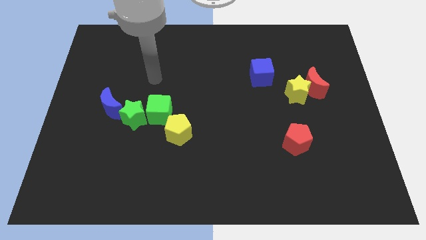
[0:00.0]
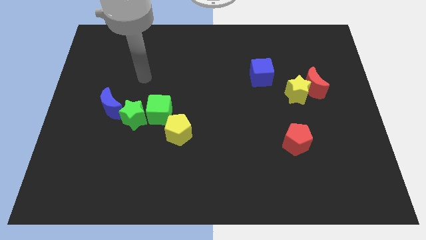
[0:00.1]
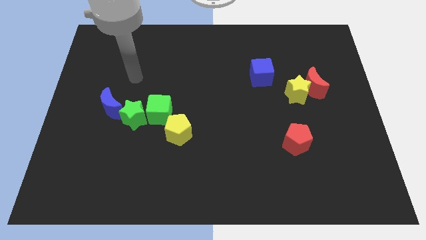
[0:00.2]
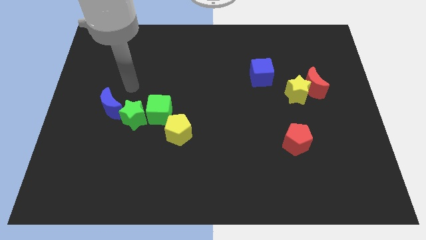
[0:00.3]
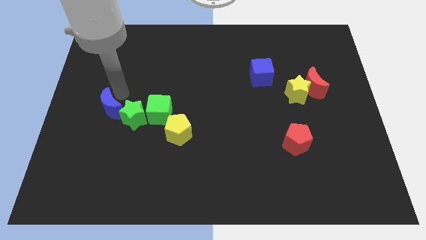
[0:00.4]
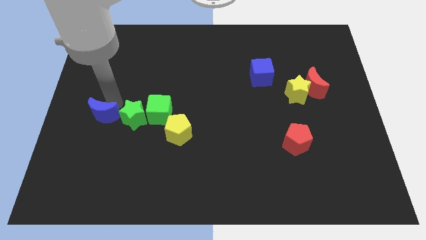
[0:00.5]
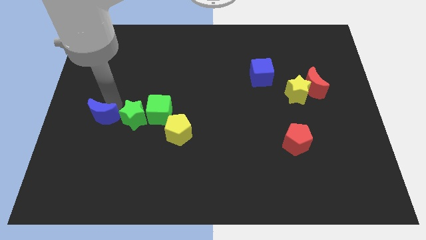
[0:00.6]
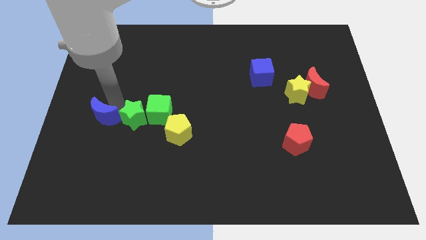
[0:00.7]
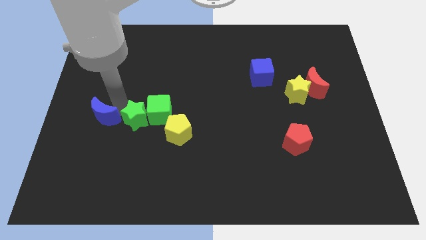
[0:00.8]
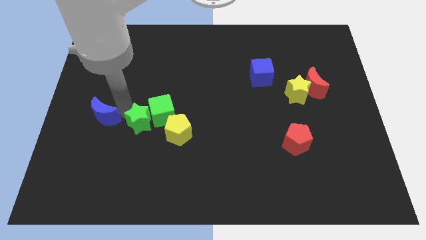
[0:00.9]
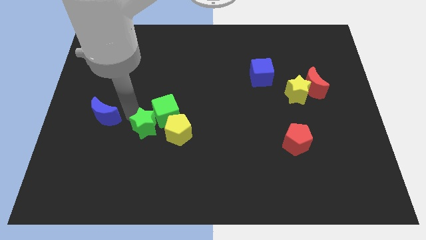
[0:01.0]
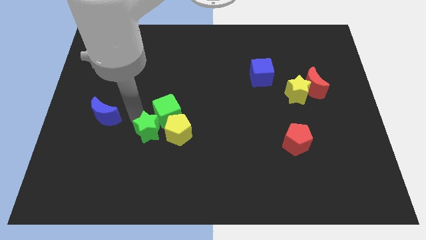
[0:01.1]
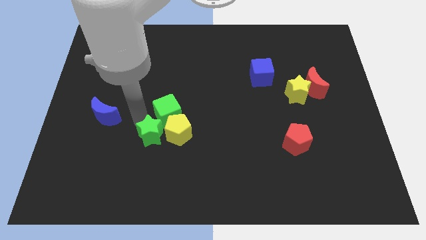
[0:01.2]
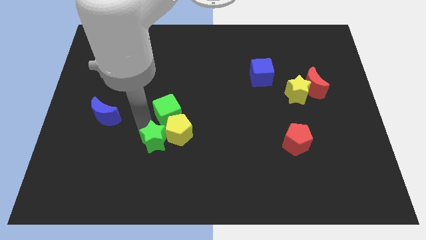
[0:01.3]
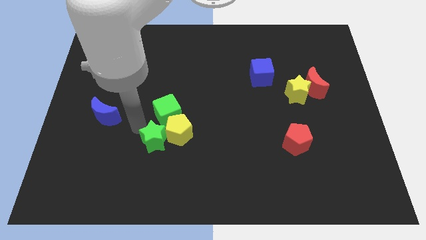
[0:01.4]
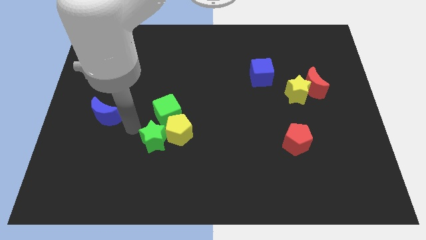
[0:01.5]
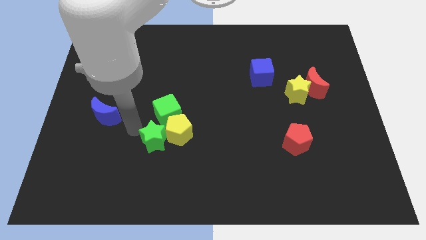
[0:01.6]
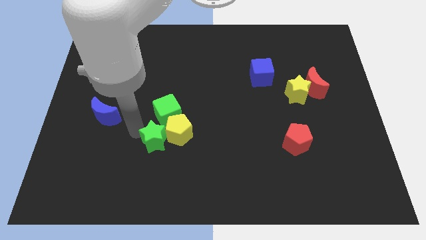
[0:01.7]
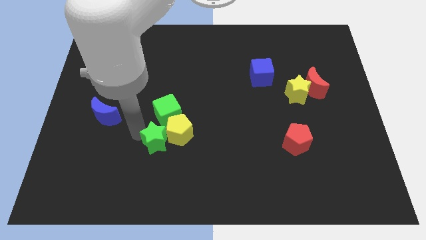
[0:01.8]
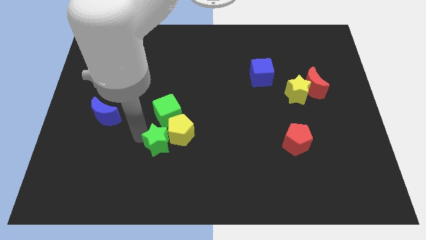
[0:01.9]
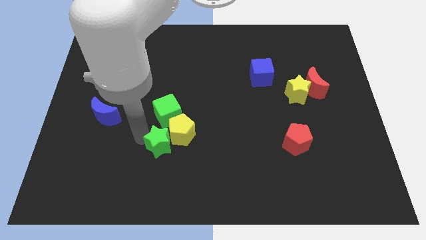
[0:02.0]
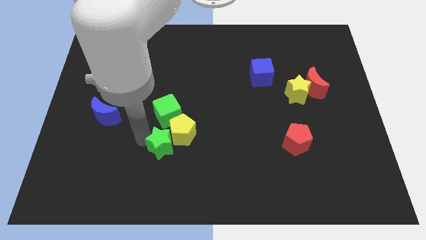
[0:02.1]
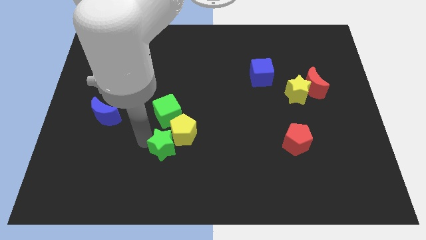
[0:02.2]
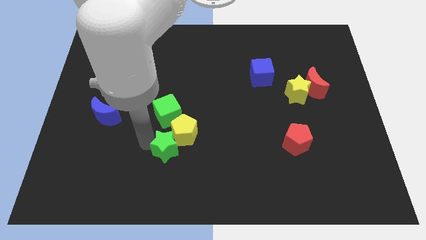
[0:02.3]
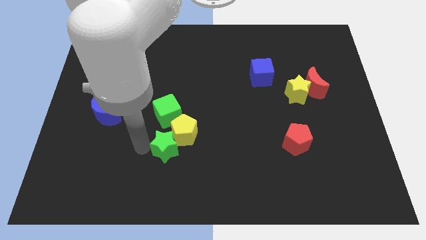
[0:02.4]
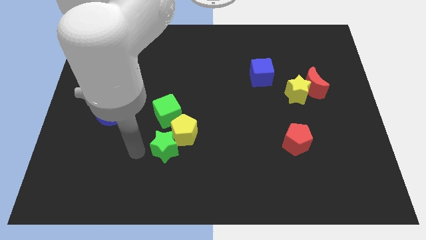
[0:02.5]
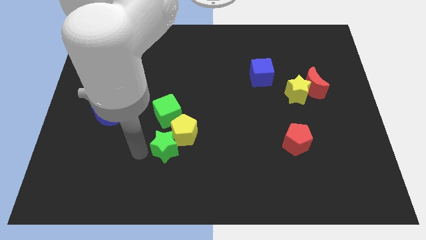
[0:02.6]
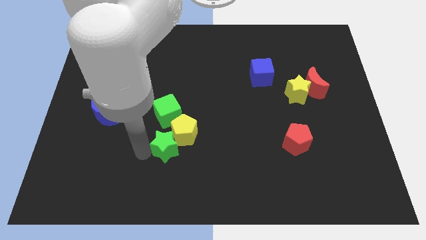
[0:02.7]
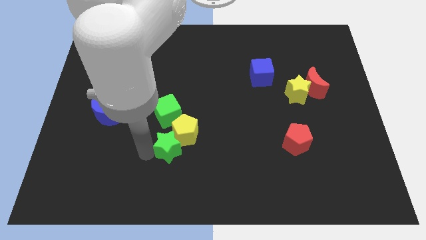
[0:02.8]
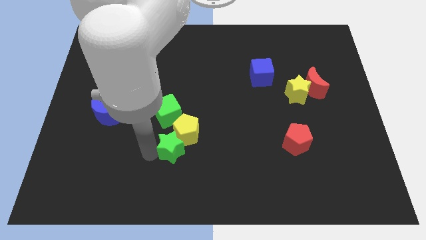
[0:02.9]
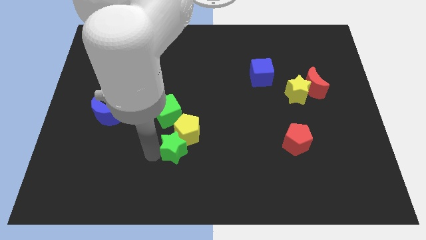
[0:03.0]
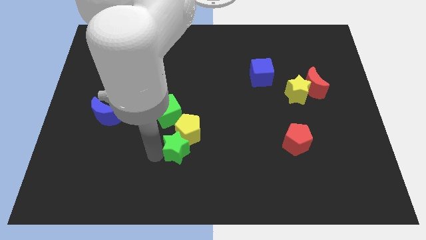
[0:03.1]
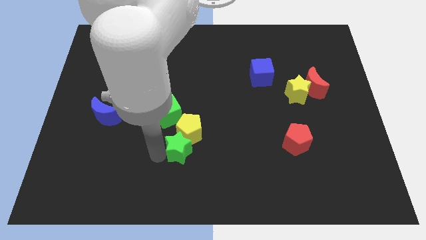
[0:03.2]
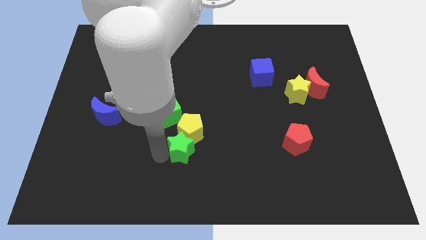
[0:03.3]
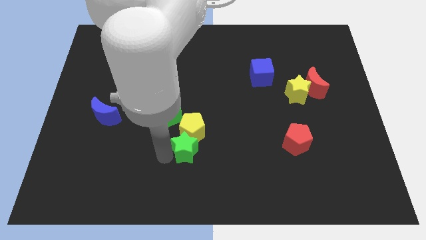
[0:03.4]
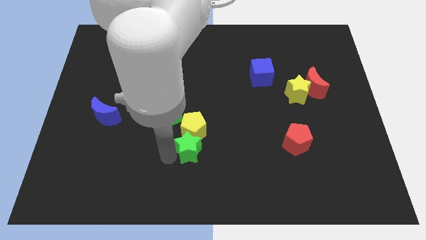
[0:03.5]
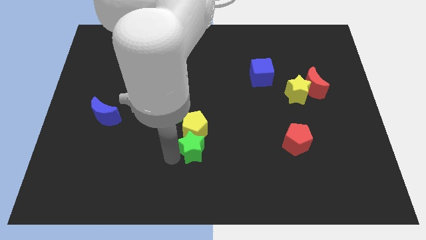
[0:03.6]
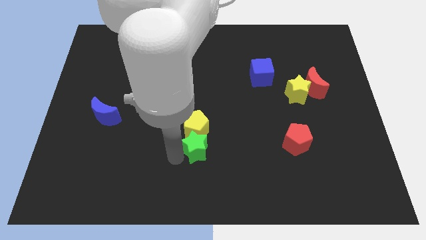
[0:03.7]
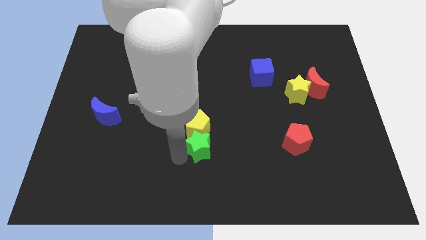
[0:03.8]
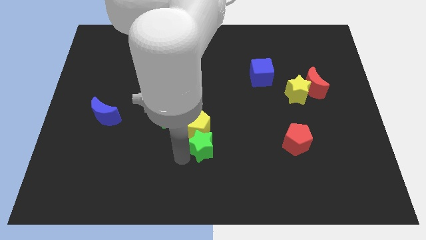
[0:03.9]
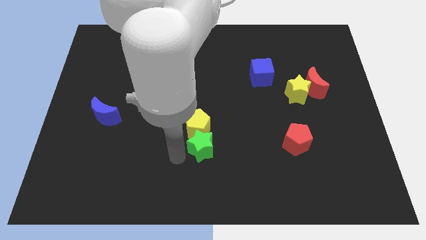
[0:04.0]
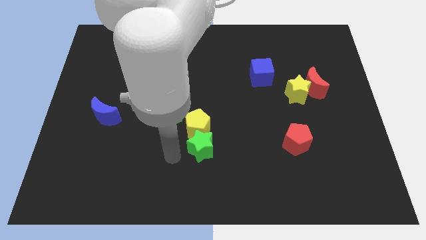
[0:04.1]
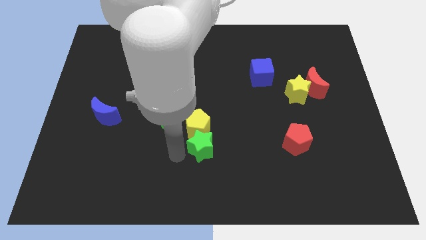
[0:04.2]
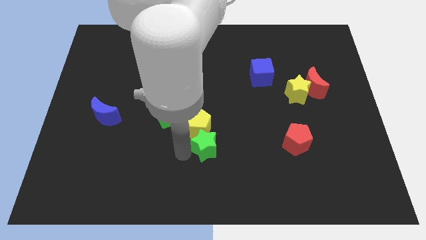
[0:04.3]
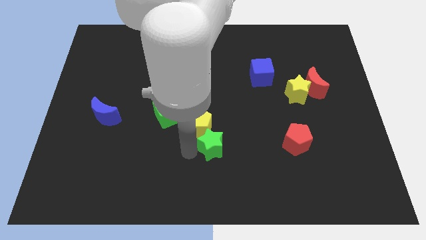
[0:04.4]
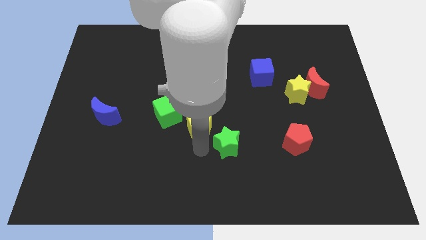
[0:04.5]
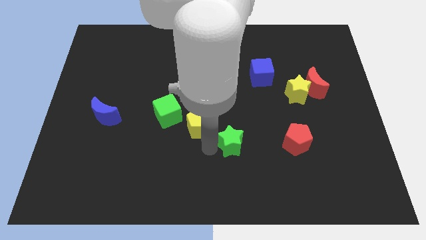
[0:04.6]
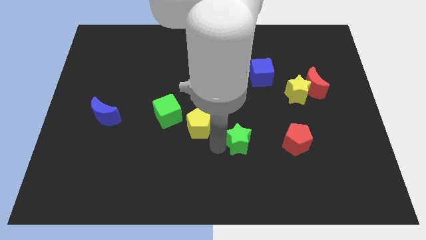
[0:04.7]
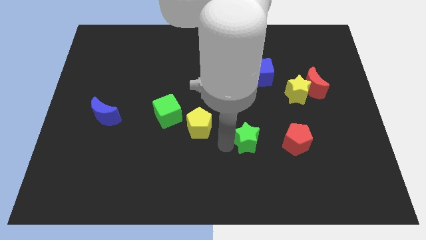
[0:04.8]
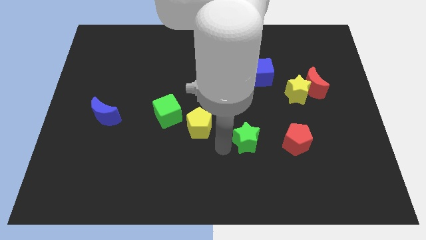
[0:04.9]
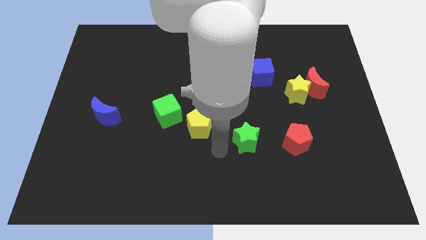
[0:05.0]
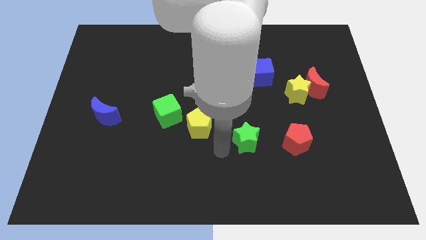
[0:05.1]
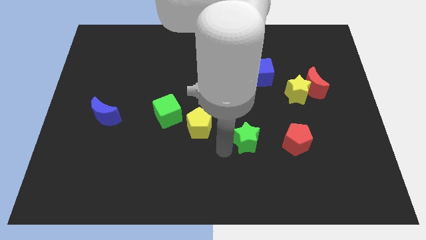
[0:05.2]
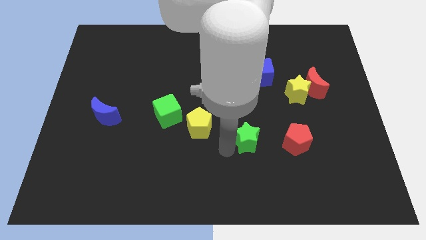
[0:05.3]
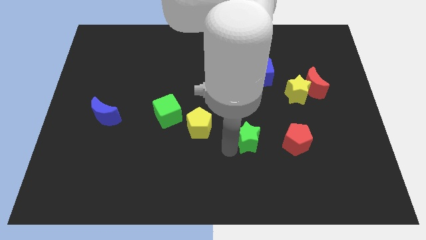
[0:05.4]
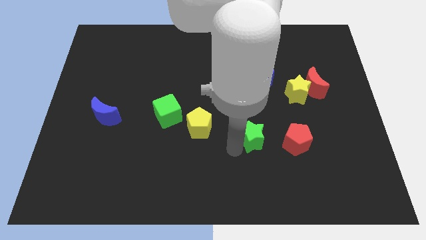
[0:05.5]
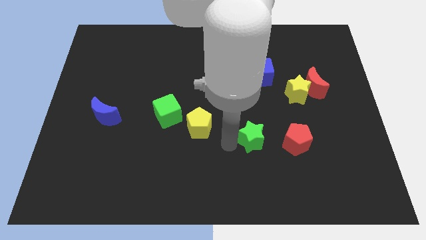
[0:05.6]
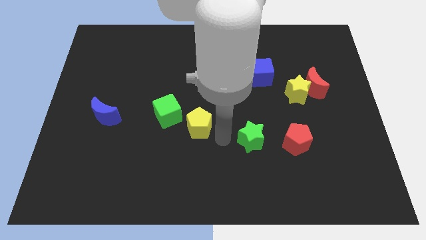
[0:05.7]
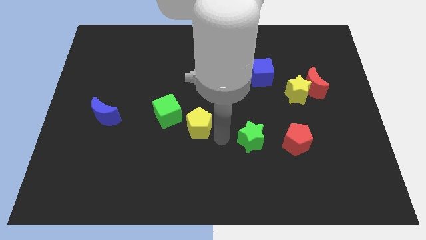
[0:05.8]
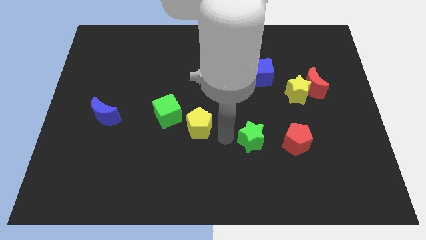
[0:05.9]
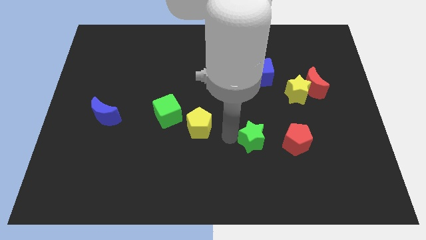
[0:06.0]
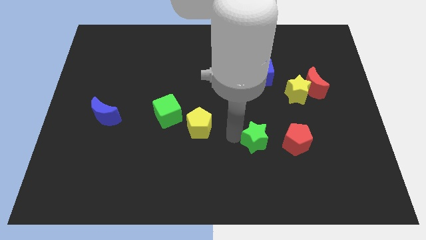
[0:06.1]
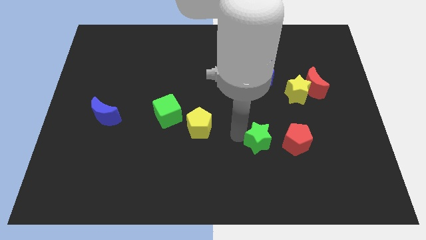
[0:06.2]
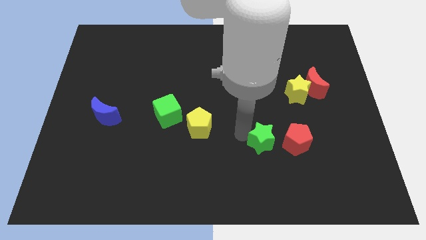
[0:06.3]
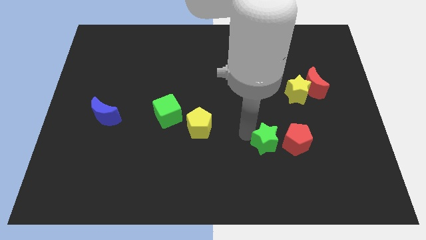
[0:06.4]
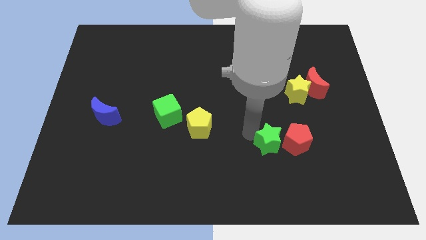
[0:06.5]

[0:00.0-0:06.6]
slide the green star close to the red pentagon
